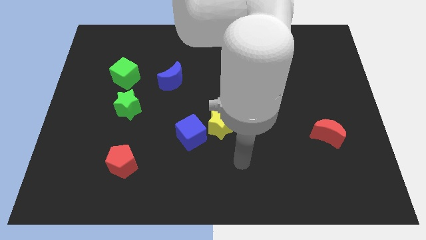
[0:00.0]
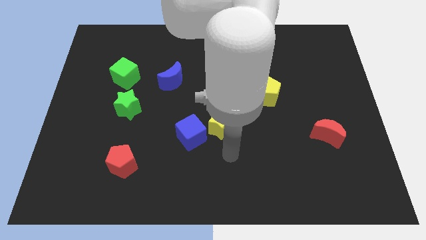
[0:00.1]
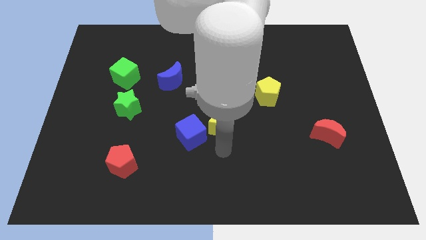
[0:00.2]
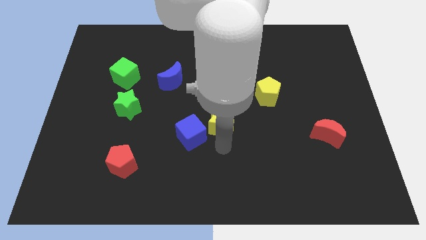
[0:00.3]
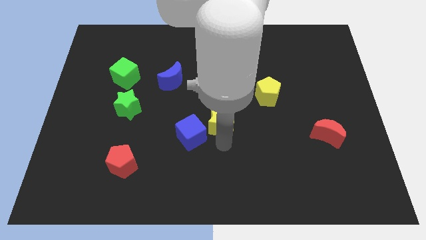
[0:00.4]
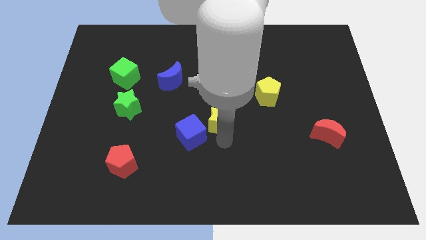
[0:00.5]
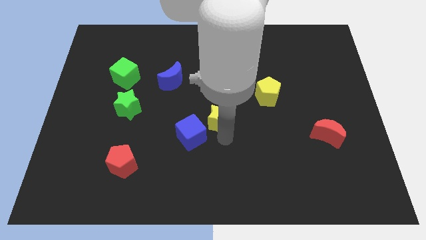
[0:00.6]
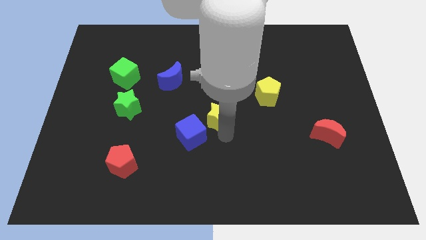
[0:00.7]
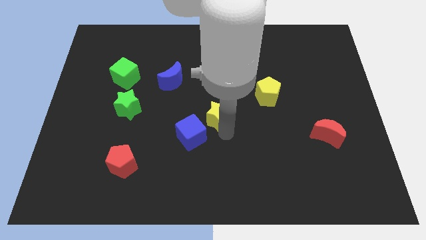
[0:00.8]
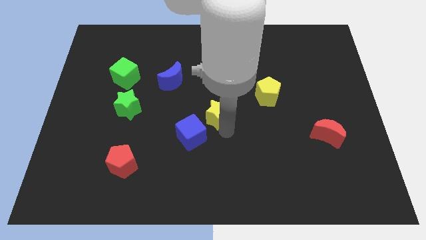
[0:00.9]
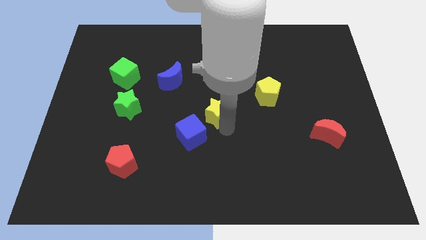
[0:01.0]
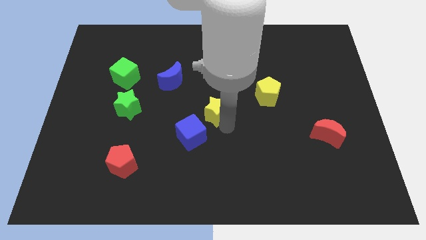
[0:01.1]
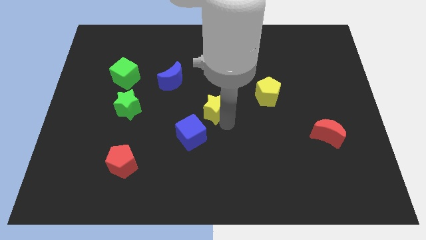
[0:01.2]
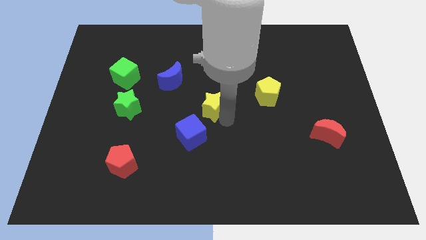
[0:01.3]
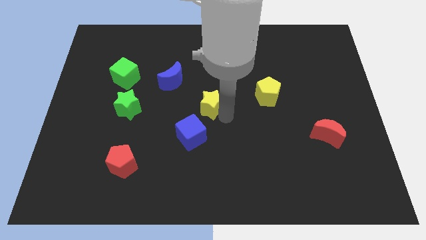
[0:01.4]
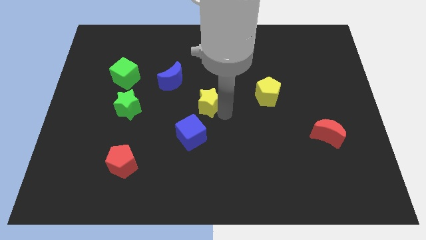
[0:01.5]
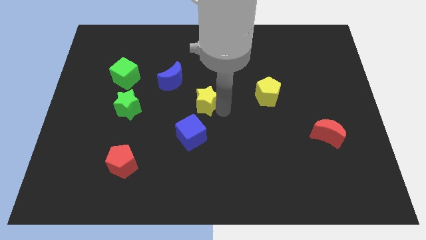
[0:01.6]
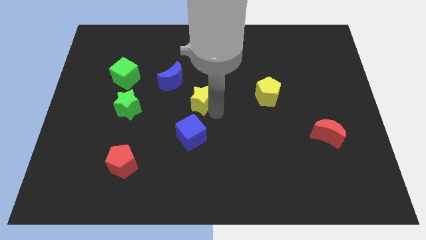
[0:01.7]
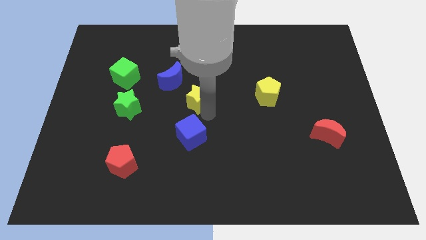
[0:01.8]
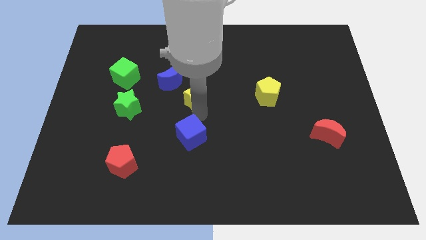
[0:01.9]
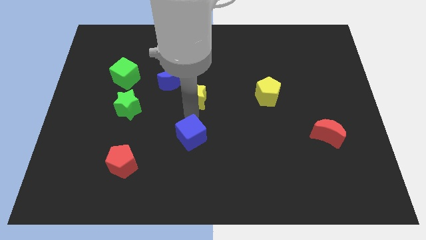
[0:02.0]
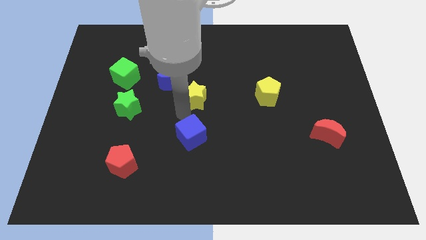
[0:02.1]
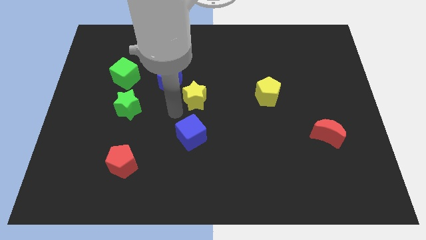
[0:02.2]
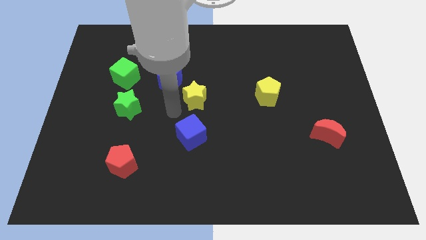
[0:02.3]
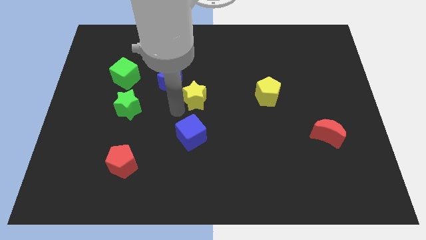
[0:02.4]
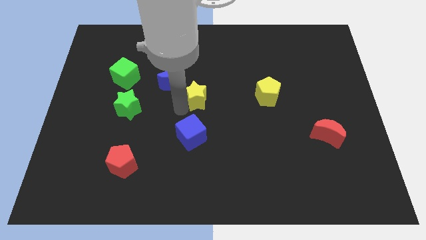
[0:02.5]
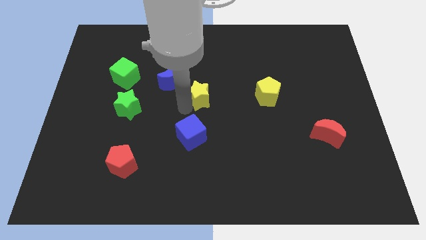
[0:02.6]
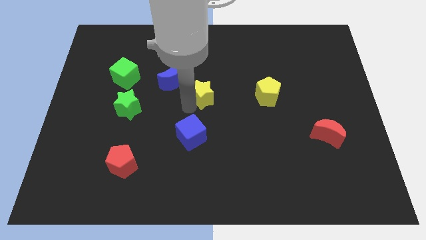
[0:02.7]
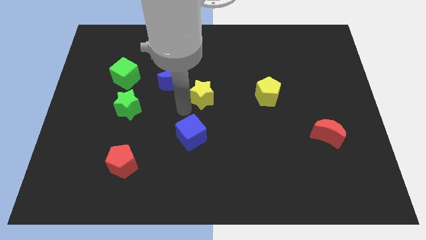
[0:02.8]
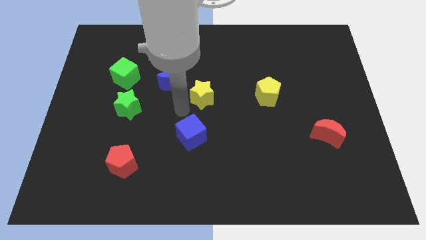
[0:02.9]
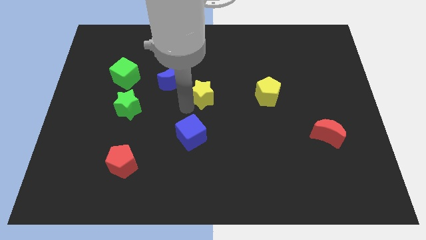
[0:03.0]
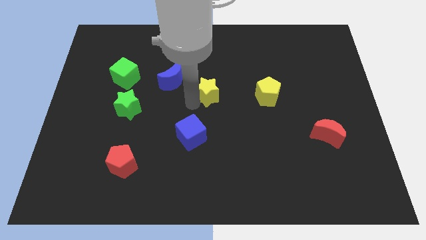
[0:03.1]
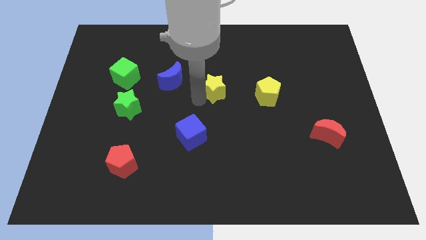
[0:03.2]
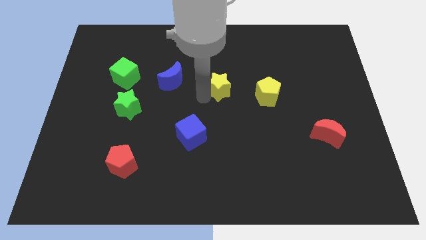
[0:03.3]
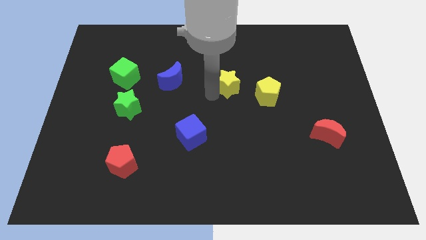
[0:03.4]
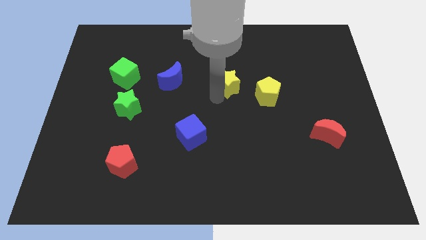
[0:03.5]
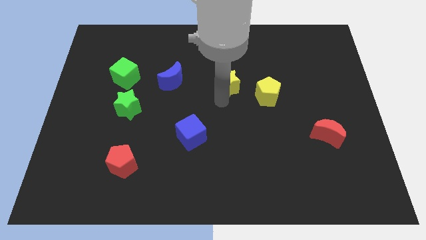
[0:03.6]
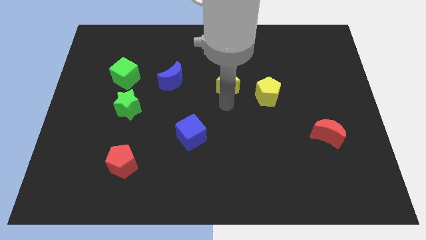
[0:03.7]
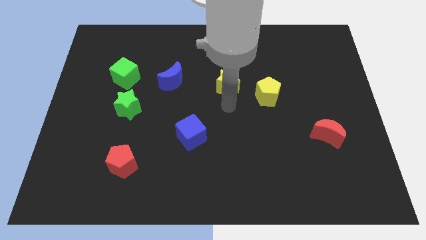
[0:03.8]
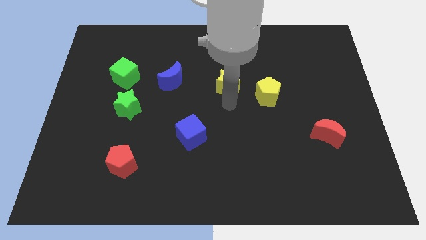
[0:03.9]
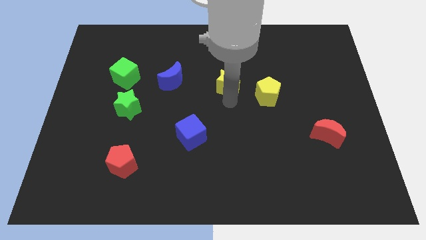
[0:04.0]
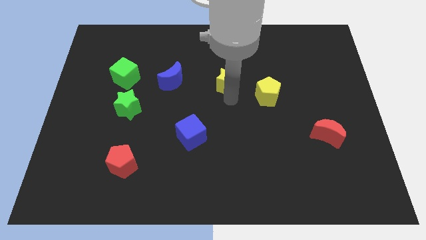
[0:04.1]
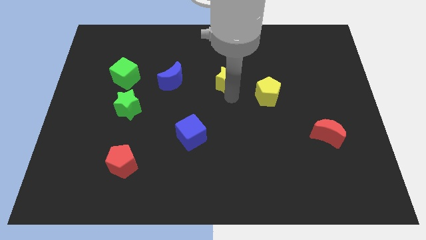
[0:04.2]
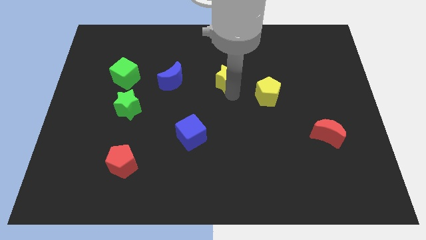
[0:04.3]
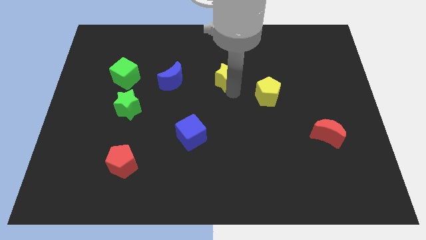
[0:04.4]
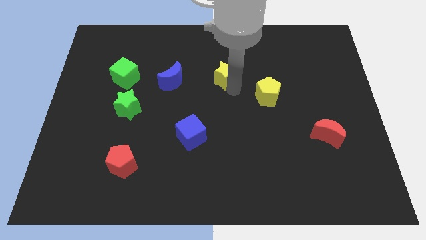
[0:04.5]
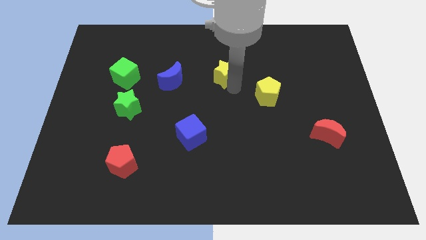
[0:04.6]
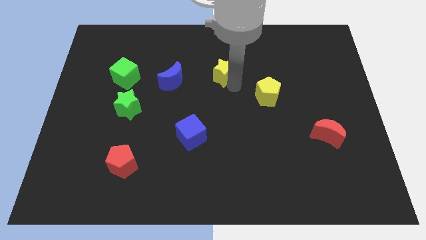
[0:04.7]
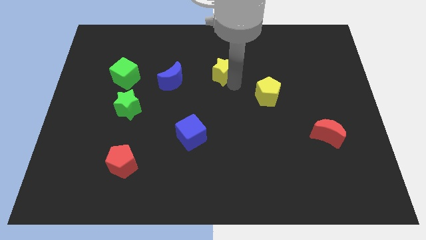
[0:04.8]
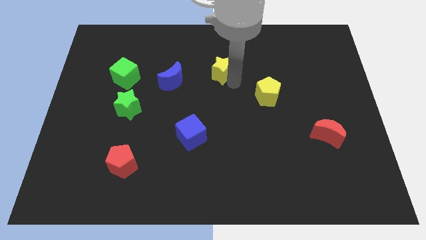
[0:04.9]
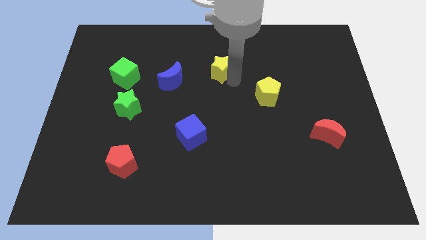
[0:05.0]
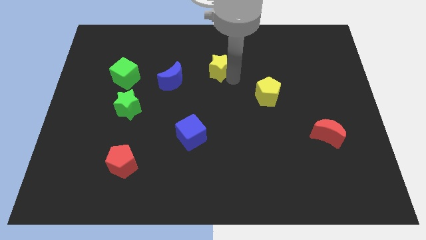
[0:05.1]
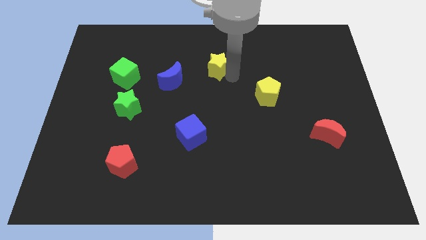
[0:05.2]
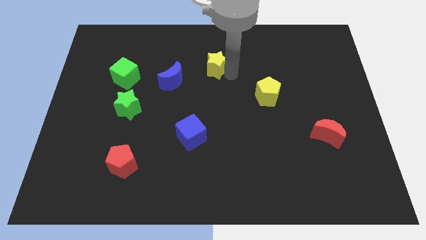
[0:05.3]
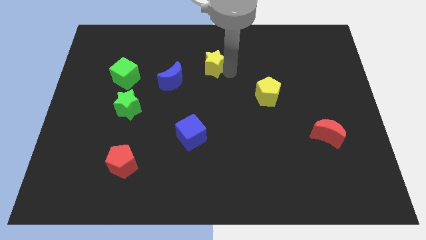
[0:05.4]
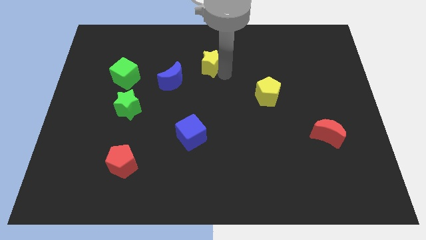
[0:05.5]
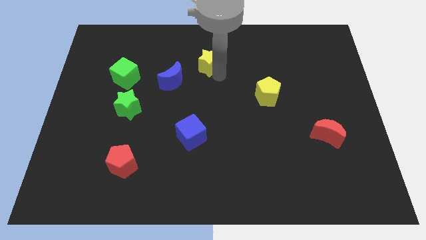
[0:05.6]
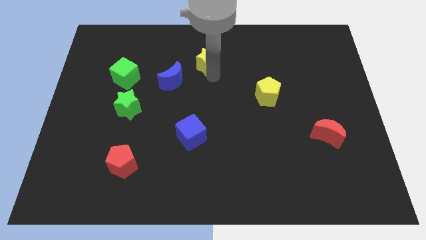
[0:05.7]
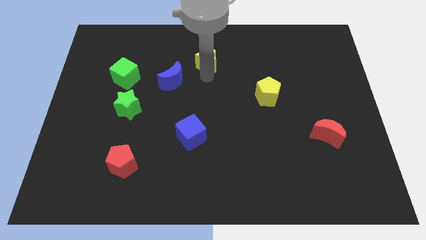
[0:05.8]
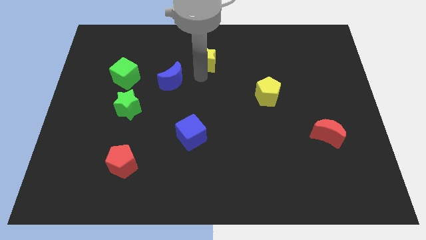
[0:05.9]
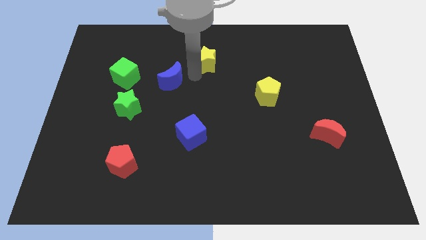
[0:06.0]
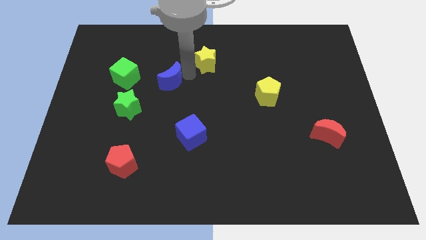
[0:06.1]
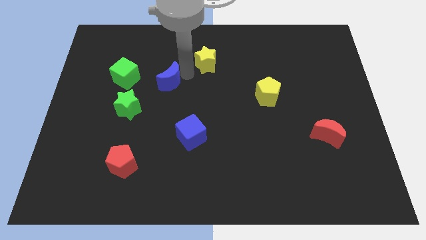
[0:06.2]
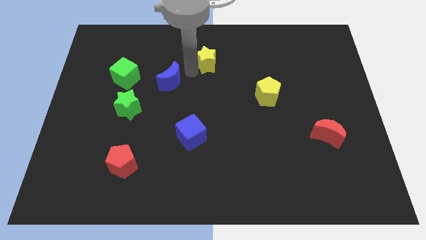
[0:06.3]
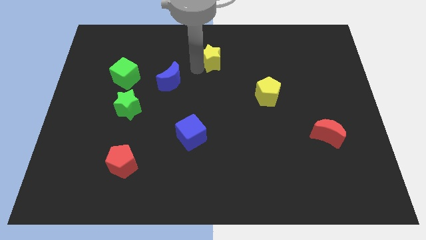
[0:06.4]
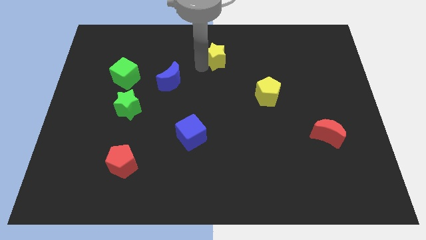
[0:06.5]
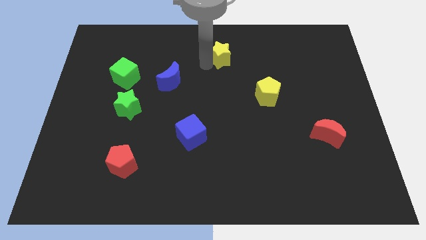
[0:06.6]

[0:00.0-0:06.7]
slide the yellow star to the top
